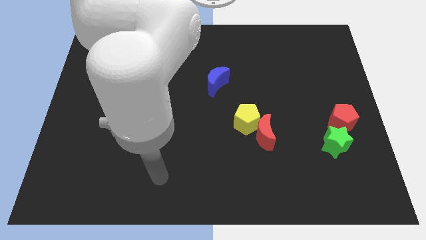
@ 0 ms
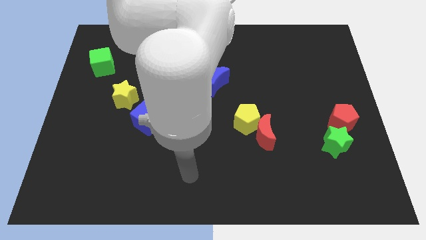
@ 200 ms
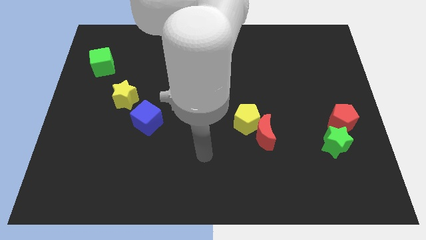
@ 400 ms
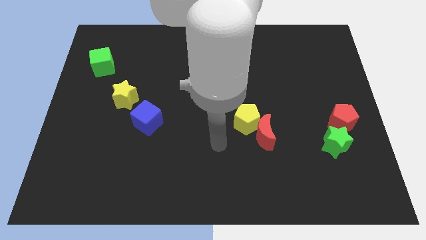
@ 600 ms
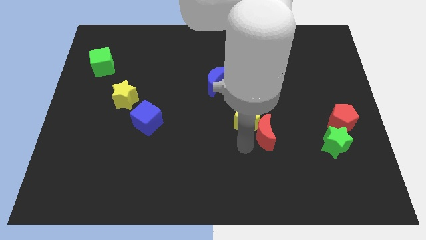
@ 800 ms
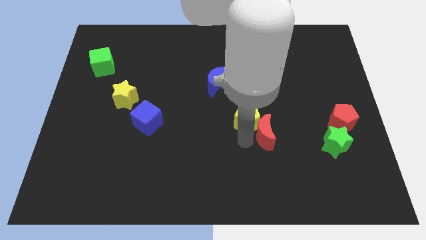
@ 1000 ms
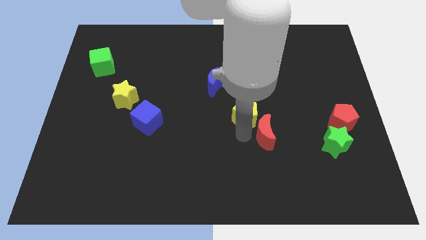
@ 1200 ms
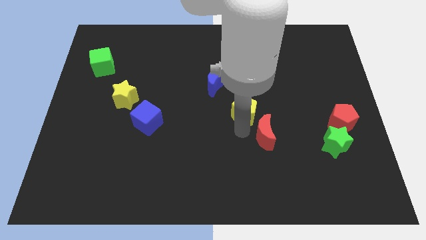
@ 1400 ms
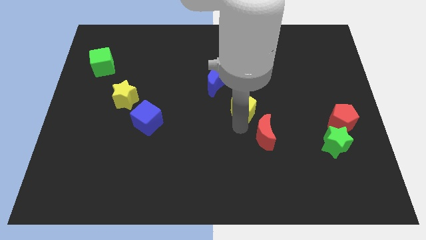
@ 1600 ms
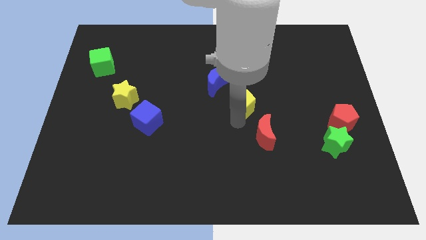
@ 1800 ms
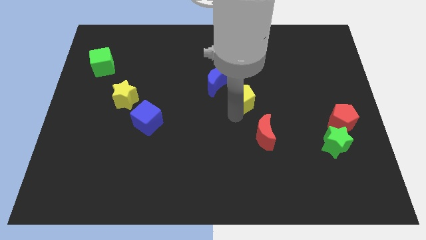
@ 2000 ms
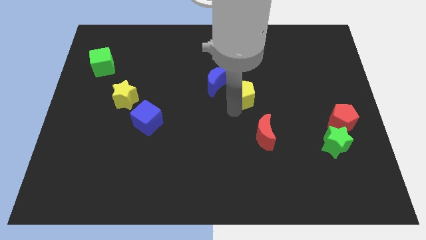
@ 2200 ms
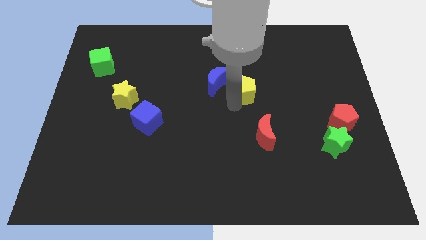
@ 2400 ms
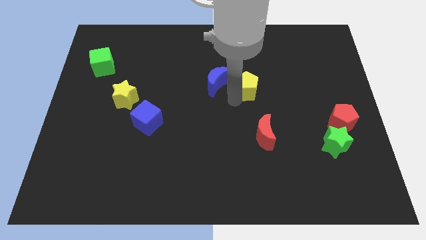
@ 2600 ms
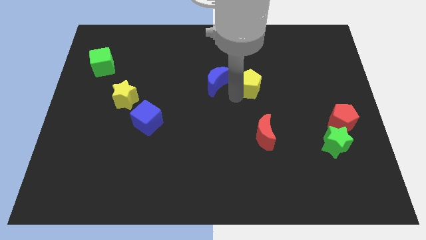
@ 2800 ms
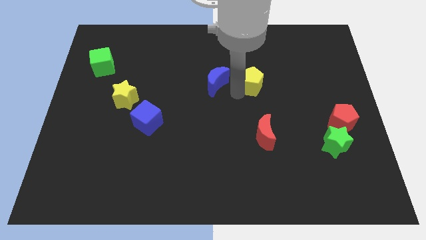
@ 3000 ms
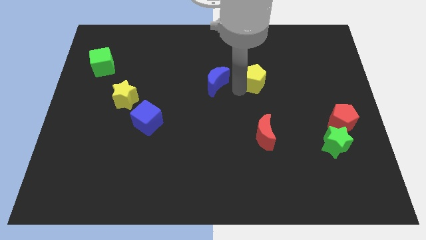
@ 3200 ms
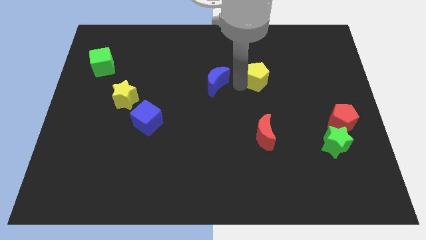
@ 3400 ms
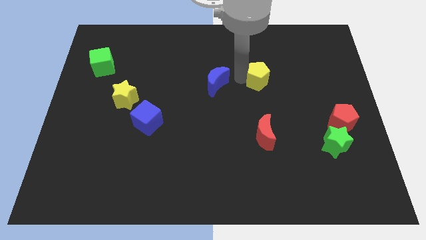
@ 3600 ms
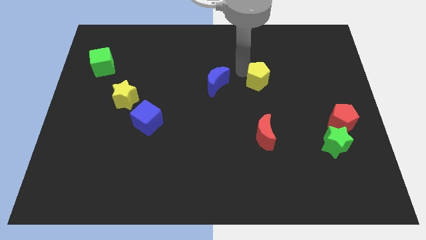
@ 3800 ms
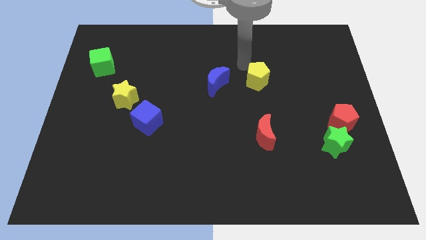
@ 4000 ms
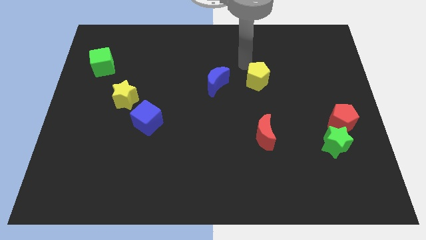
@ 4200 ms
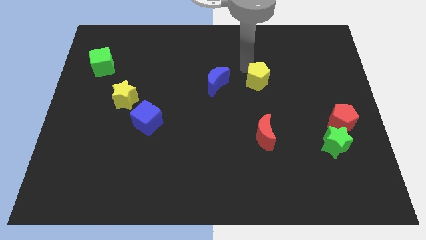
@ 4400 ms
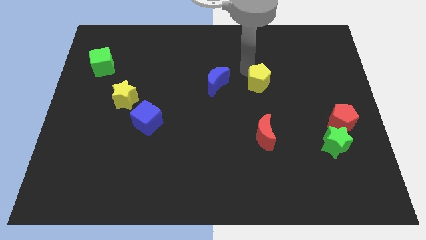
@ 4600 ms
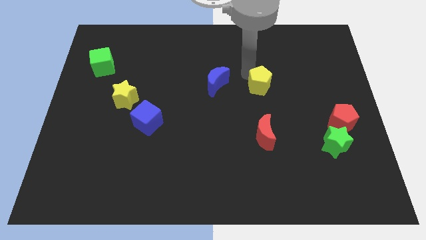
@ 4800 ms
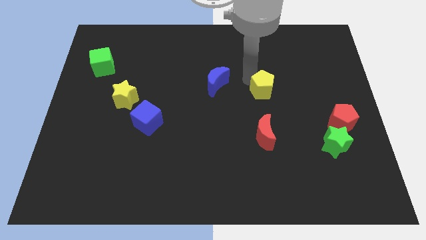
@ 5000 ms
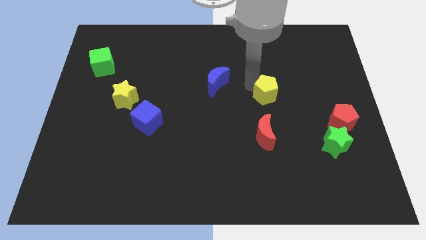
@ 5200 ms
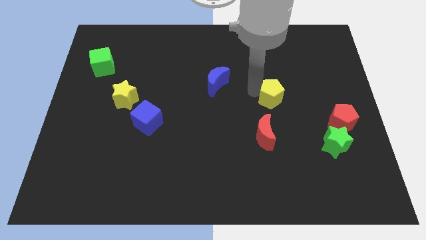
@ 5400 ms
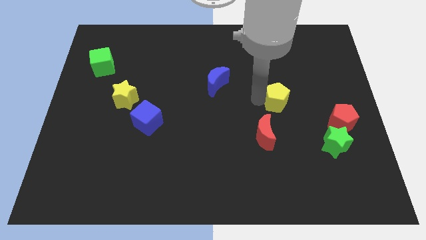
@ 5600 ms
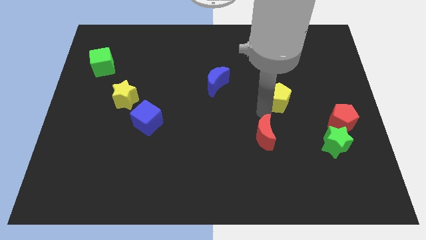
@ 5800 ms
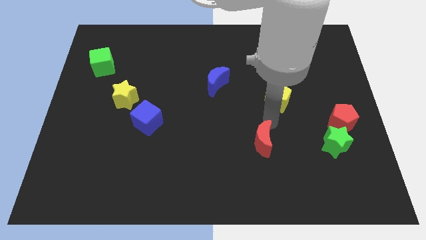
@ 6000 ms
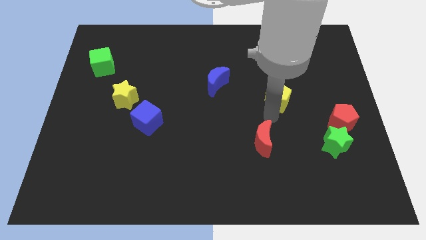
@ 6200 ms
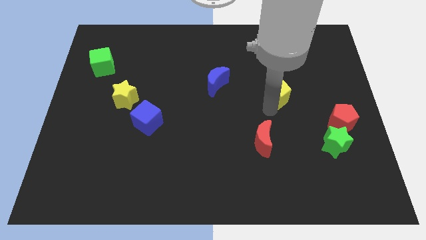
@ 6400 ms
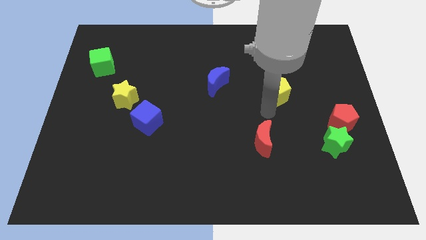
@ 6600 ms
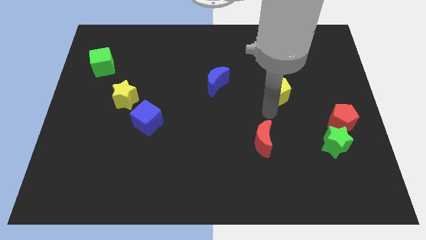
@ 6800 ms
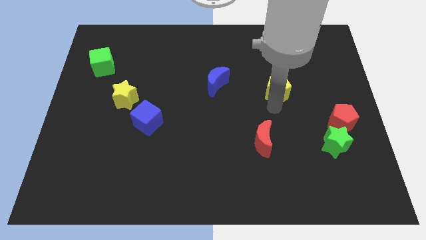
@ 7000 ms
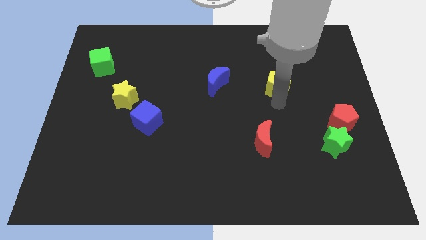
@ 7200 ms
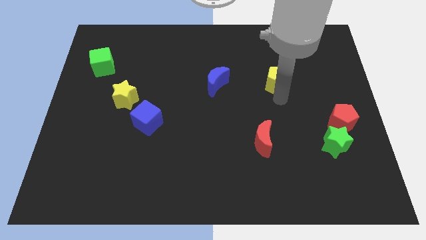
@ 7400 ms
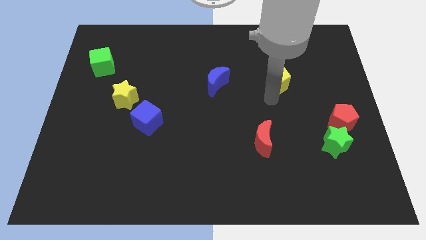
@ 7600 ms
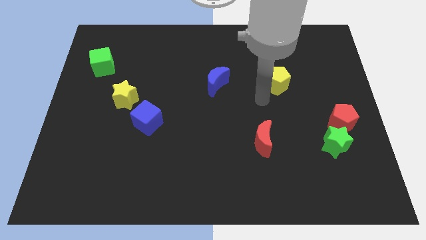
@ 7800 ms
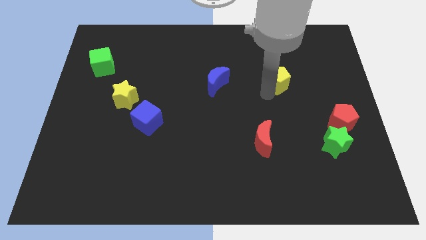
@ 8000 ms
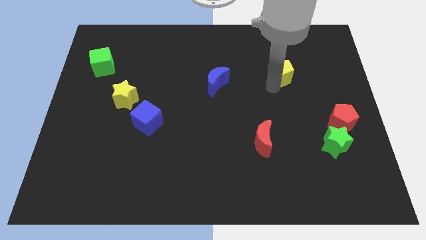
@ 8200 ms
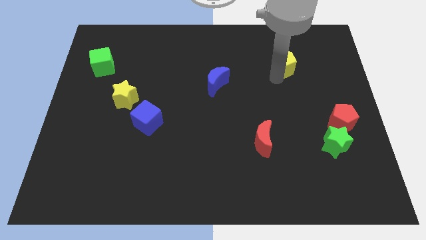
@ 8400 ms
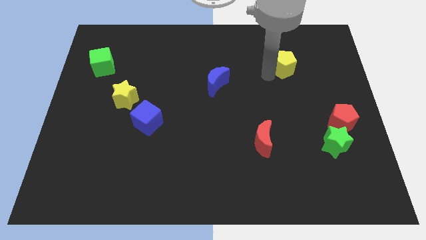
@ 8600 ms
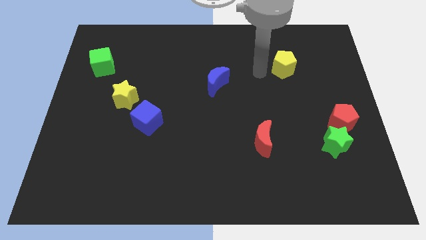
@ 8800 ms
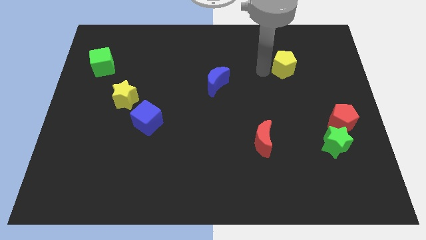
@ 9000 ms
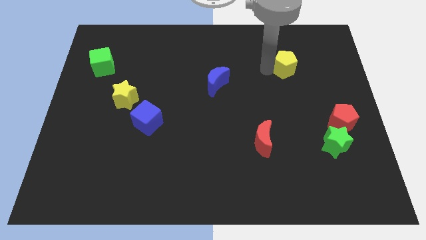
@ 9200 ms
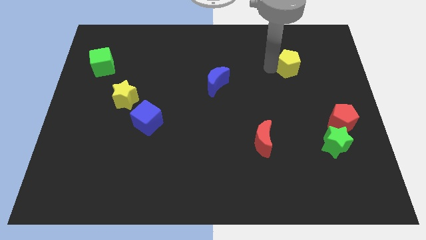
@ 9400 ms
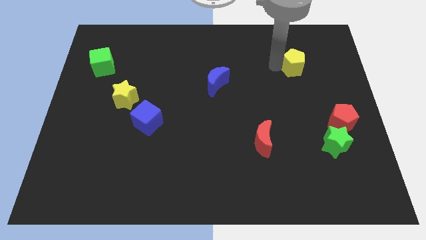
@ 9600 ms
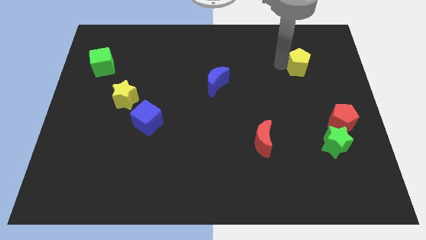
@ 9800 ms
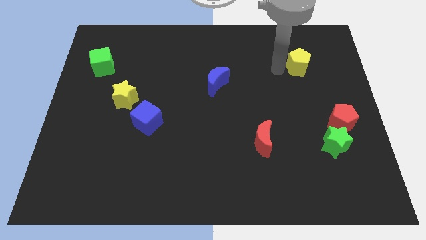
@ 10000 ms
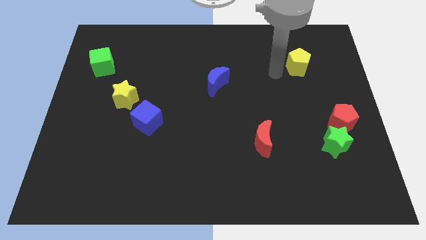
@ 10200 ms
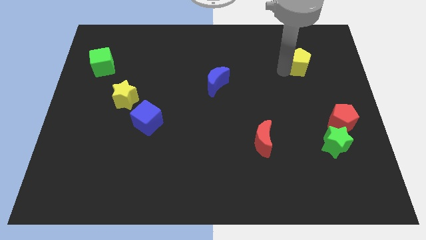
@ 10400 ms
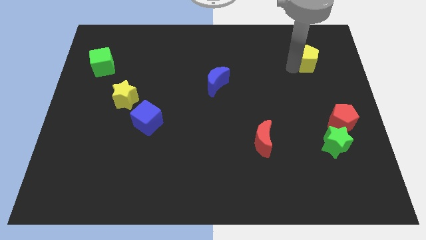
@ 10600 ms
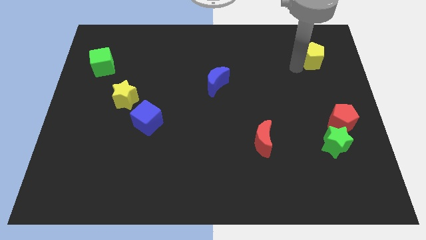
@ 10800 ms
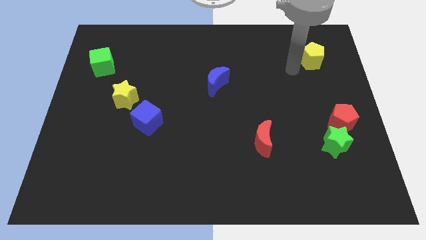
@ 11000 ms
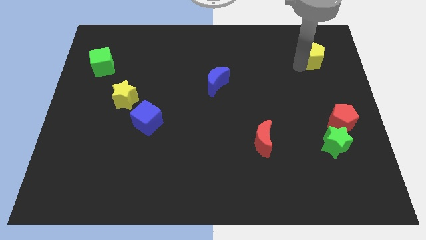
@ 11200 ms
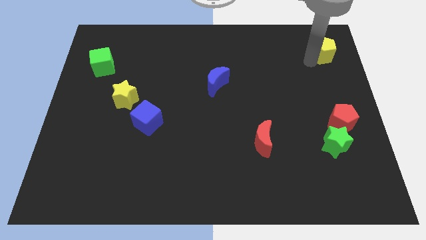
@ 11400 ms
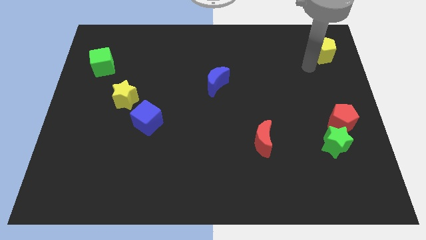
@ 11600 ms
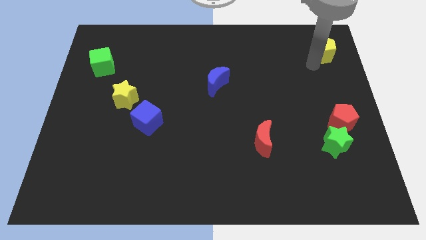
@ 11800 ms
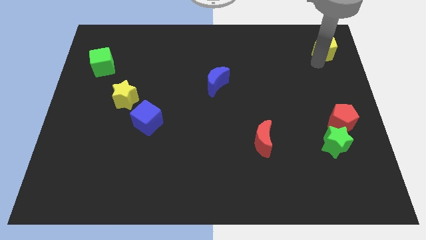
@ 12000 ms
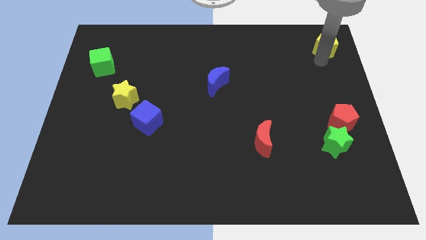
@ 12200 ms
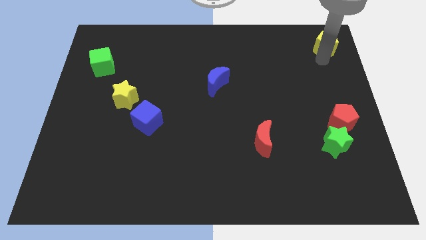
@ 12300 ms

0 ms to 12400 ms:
put the yellow pentagon to the upper right corner

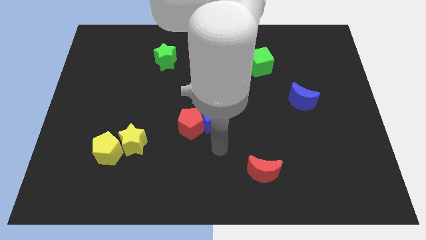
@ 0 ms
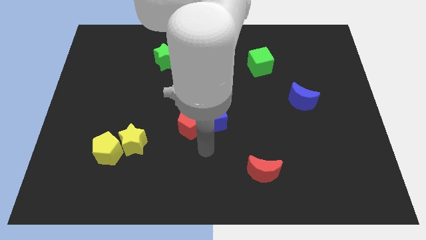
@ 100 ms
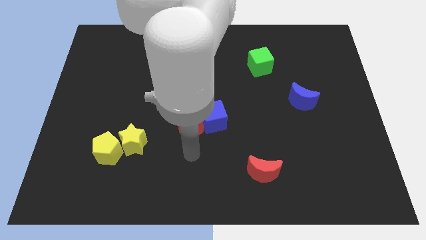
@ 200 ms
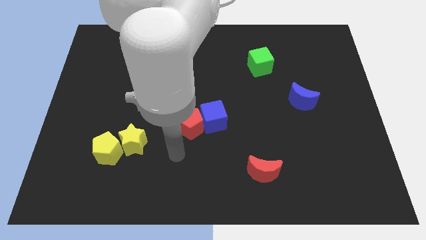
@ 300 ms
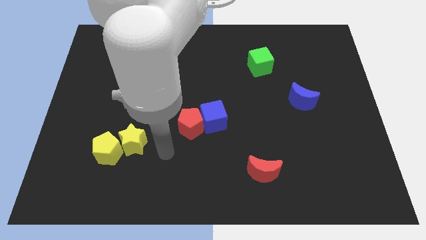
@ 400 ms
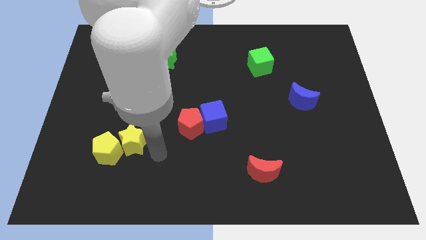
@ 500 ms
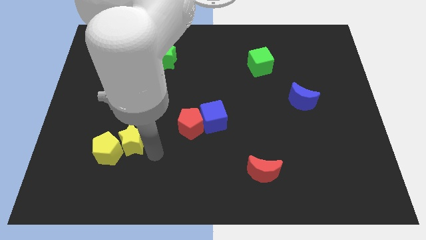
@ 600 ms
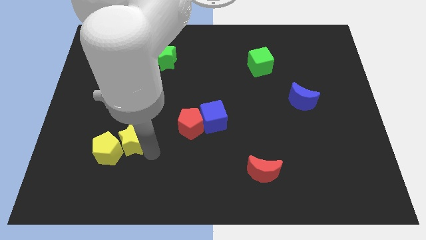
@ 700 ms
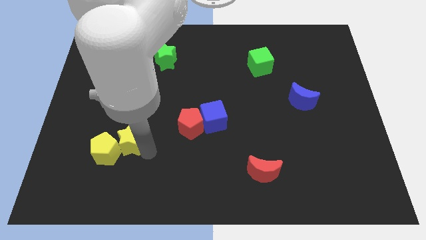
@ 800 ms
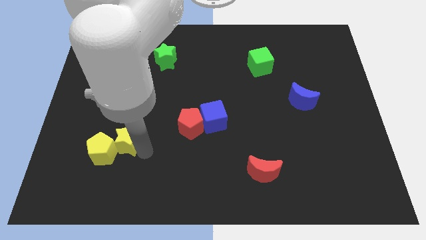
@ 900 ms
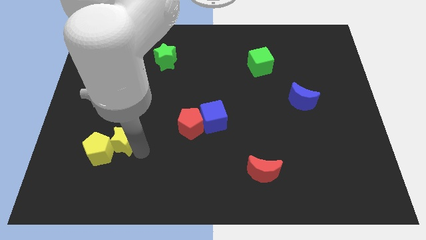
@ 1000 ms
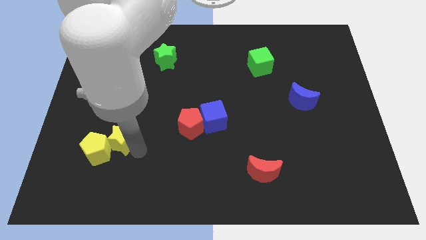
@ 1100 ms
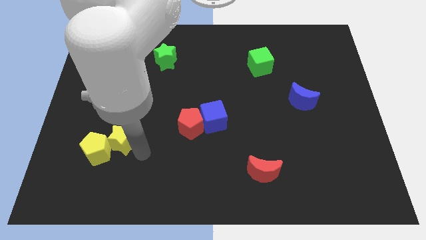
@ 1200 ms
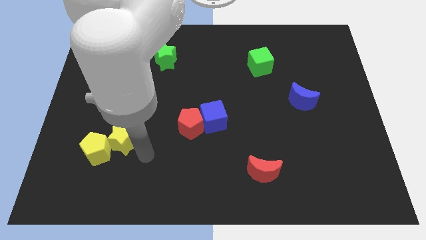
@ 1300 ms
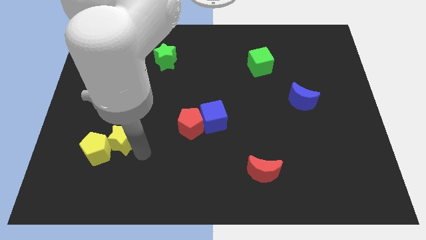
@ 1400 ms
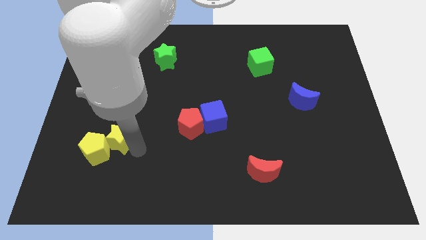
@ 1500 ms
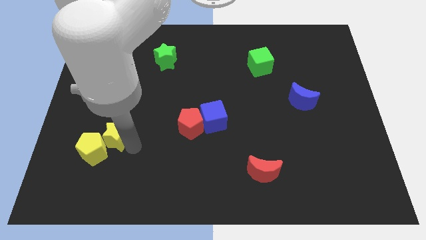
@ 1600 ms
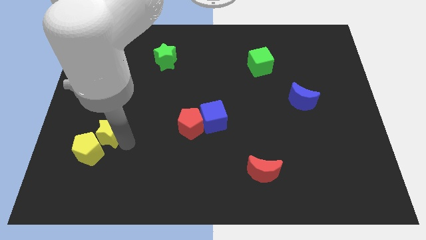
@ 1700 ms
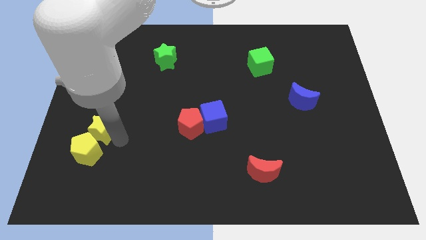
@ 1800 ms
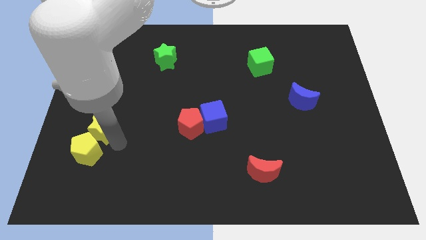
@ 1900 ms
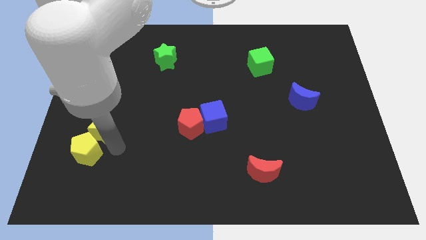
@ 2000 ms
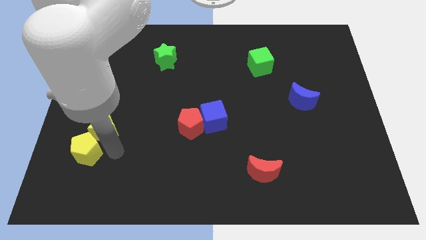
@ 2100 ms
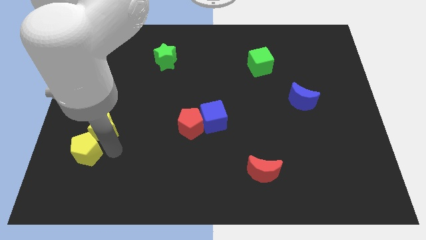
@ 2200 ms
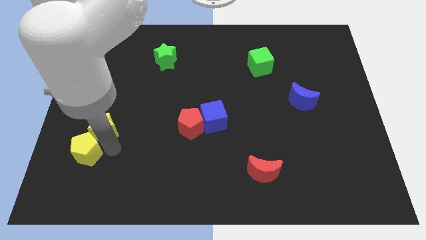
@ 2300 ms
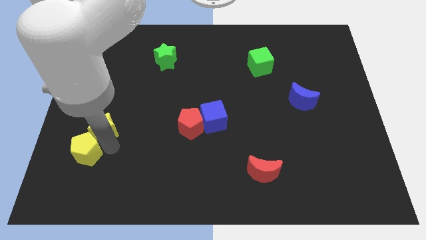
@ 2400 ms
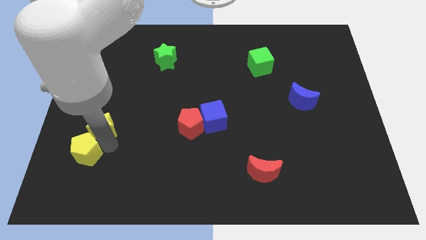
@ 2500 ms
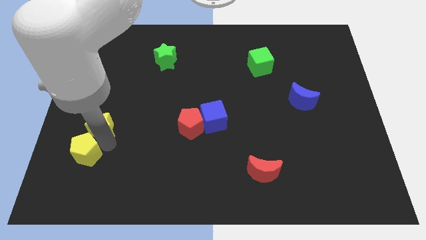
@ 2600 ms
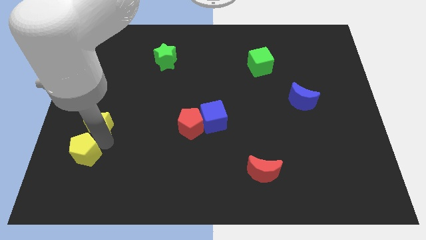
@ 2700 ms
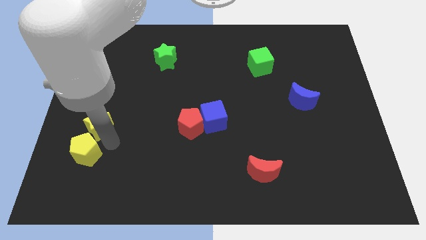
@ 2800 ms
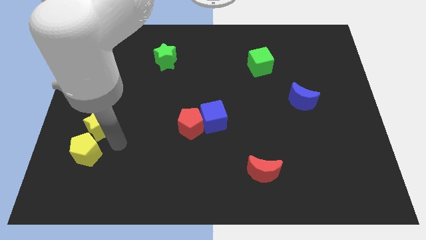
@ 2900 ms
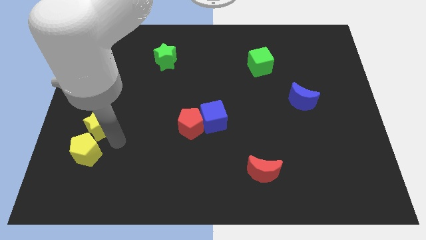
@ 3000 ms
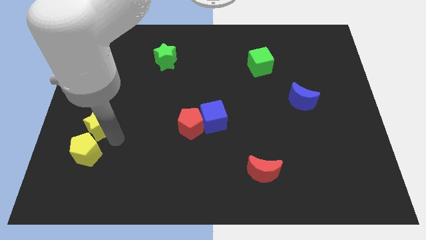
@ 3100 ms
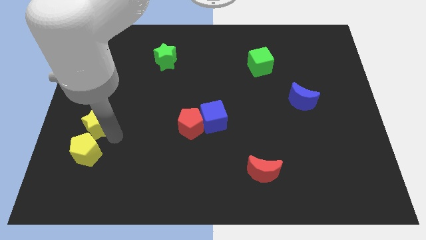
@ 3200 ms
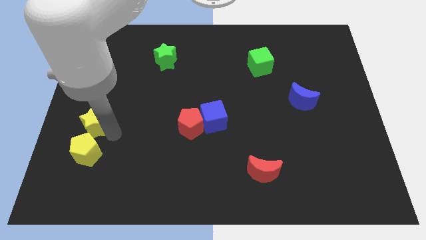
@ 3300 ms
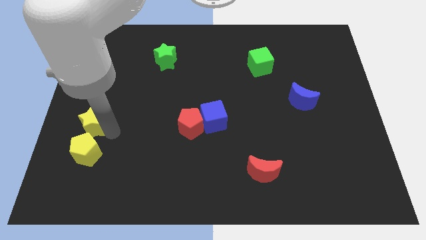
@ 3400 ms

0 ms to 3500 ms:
move the yellow star to the center left
